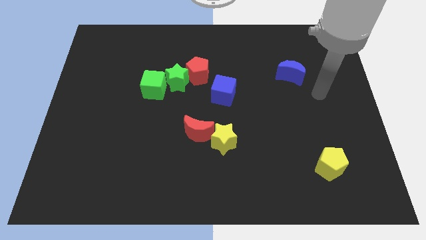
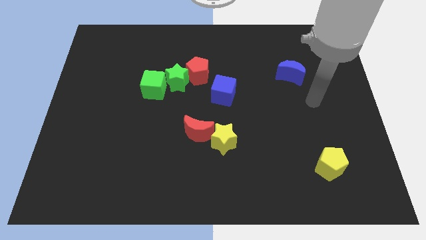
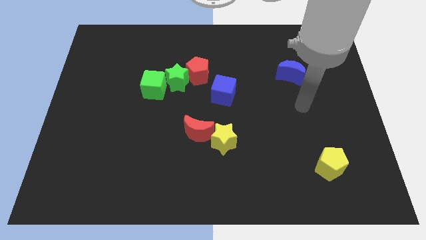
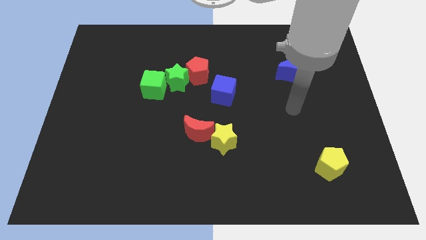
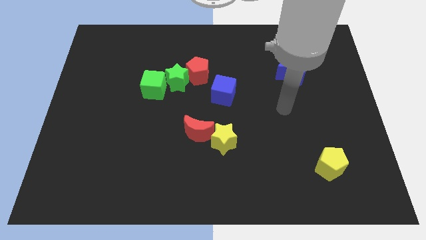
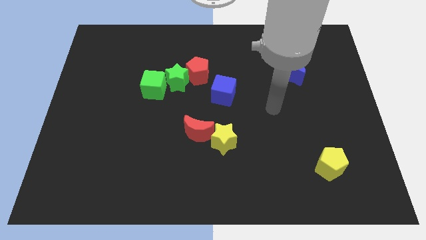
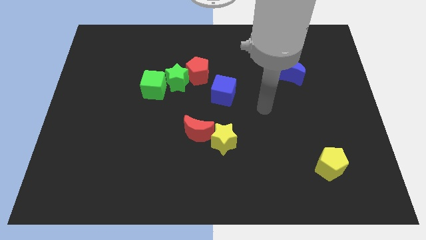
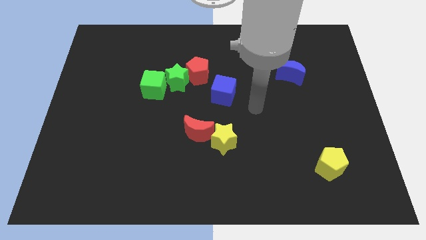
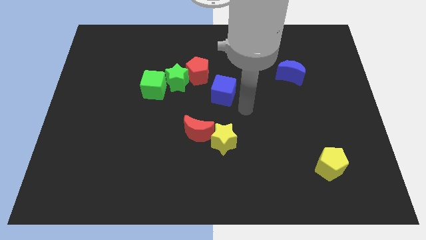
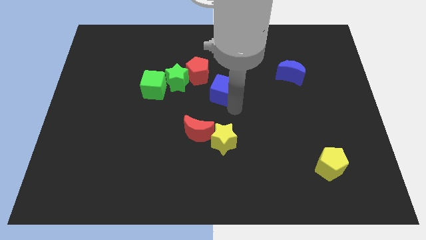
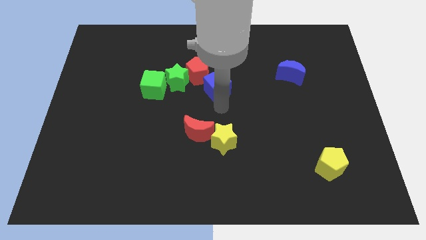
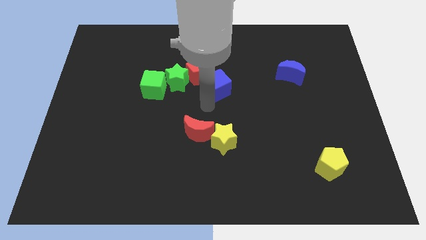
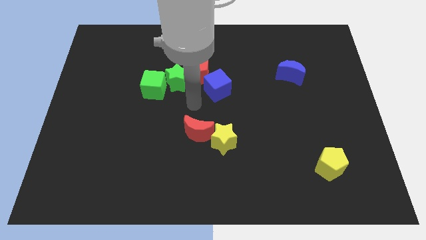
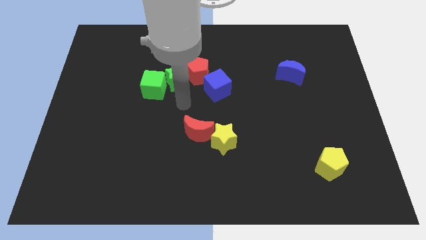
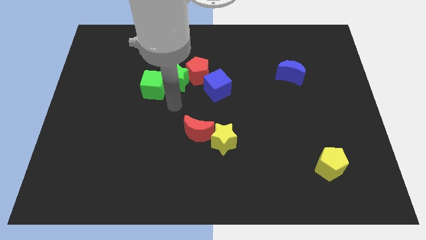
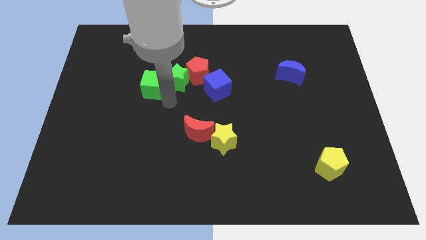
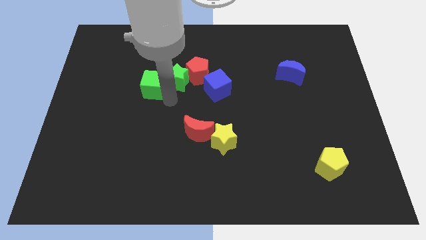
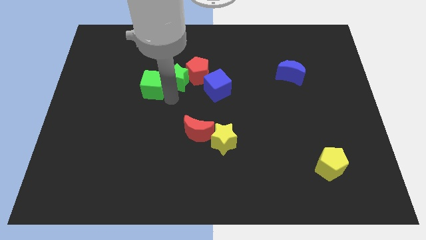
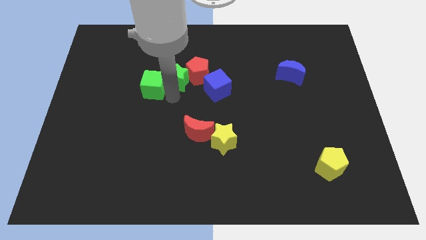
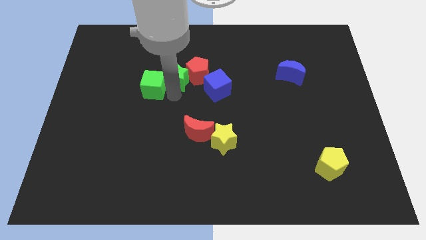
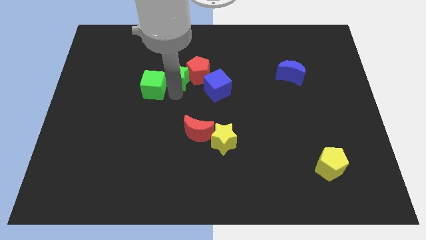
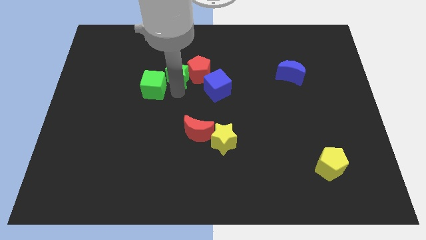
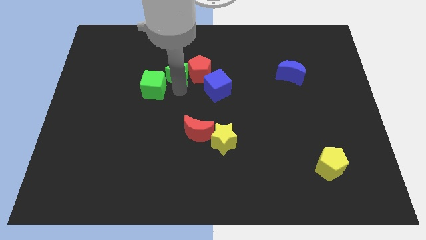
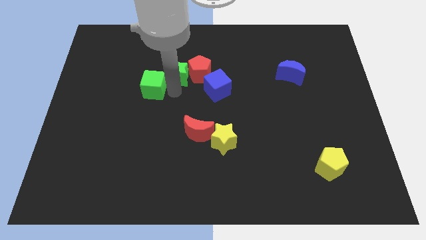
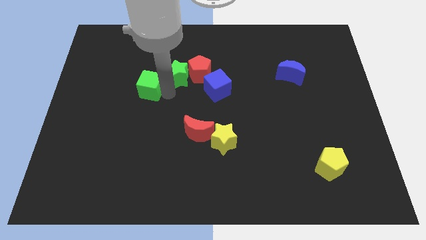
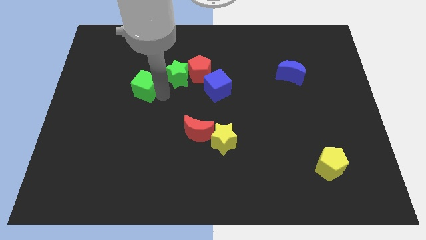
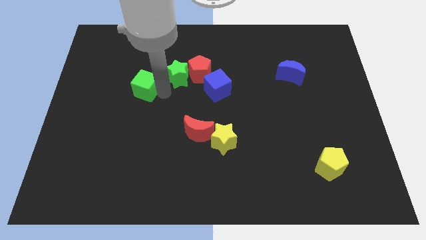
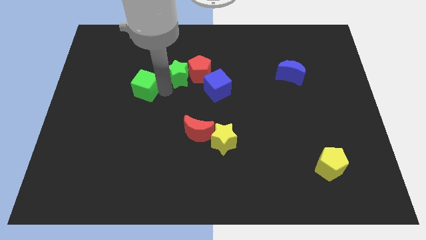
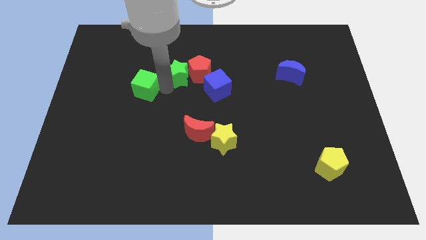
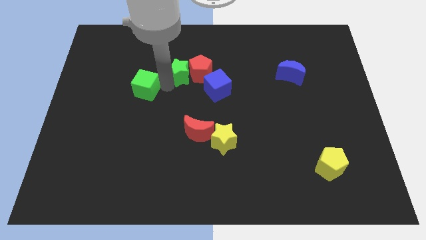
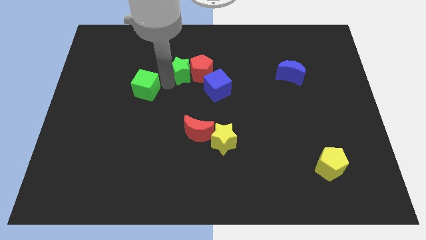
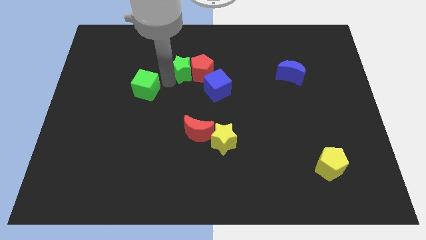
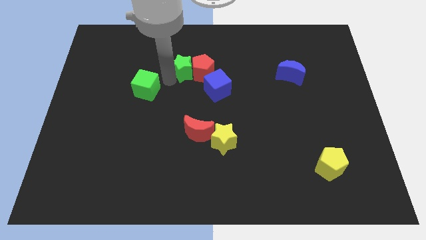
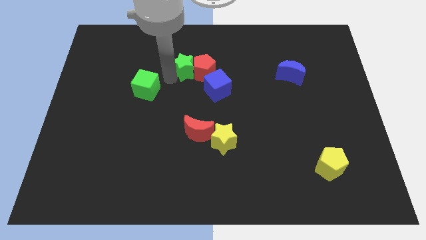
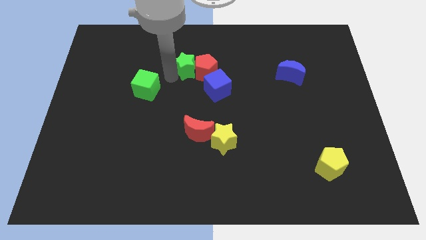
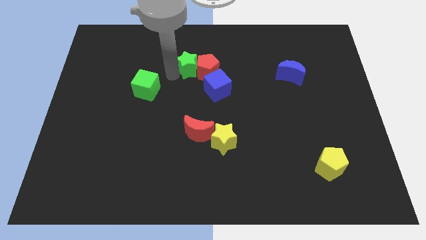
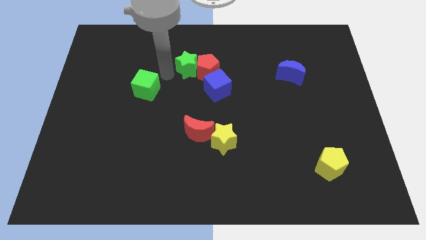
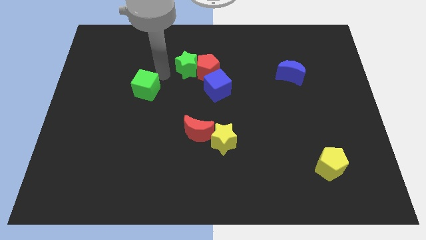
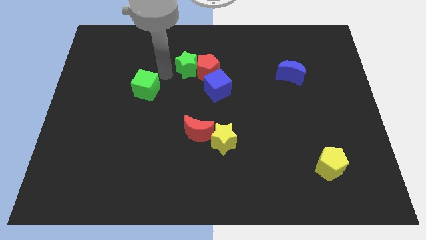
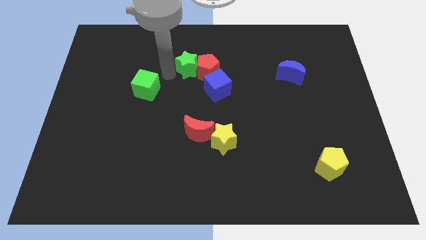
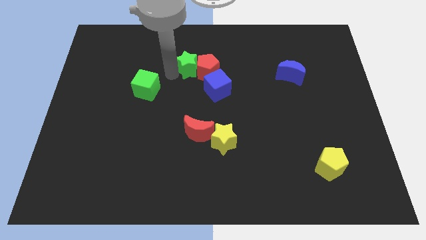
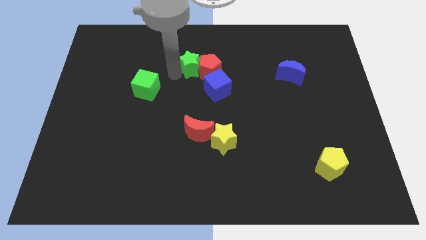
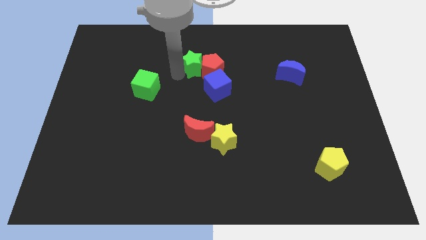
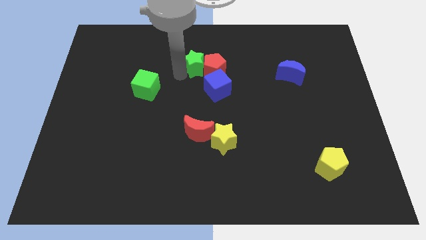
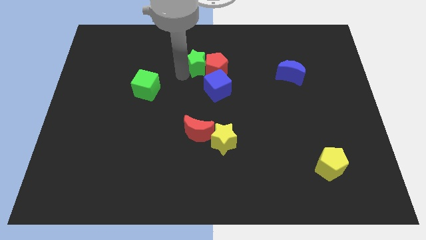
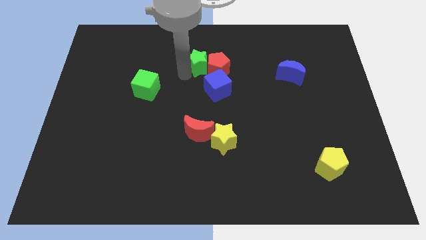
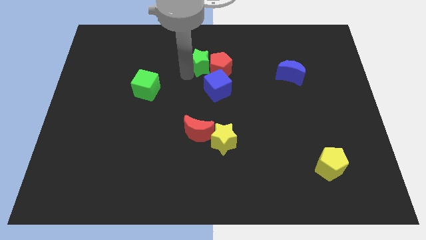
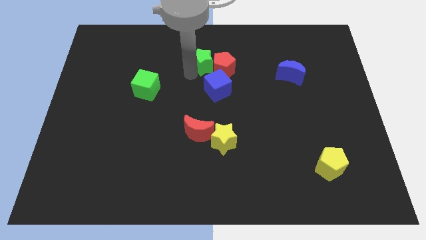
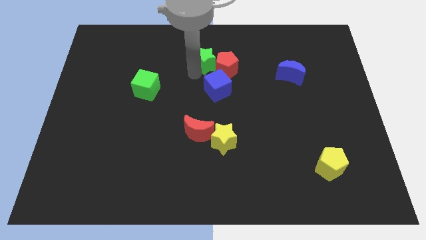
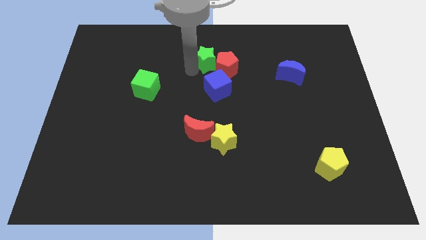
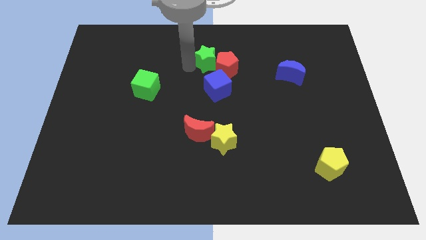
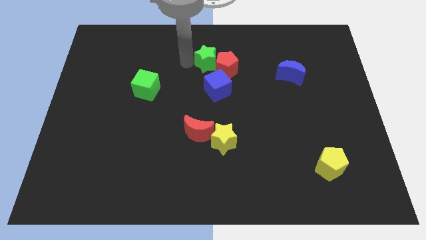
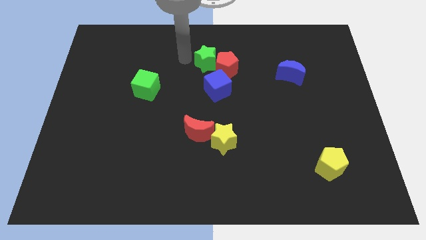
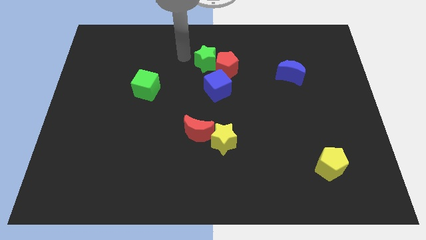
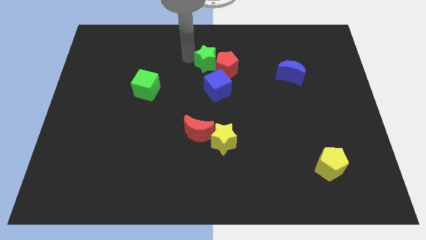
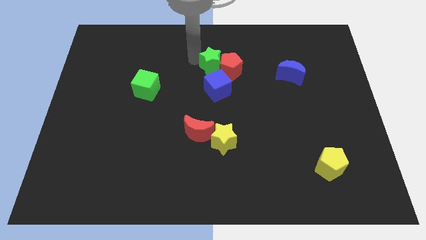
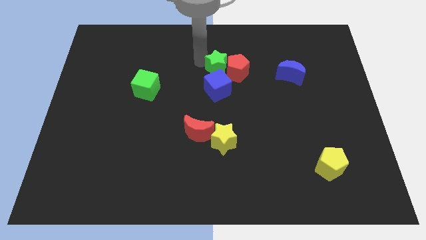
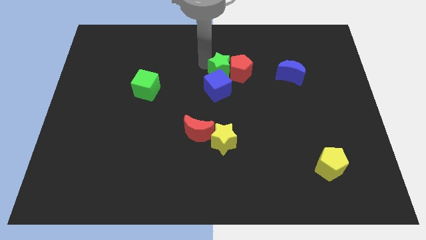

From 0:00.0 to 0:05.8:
move the green star diagonally up and to the right of the blue cube
